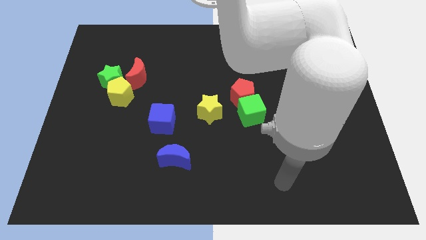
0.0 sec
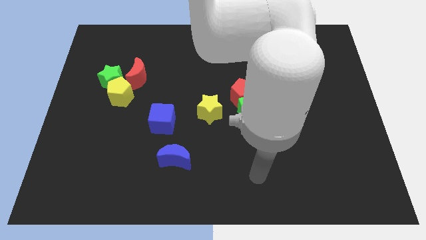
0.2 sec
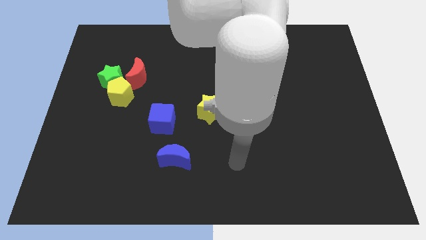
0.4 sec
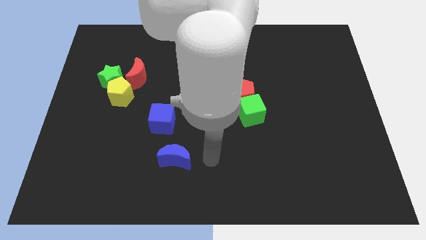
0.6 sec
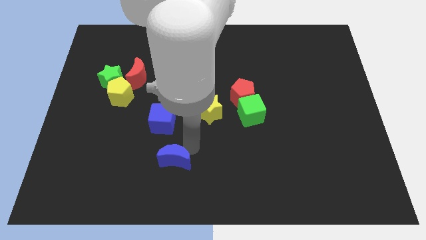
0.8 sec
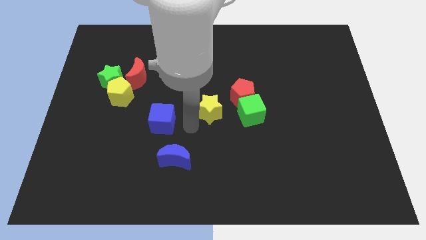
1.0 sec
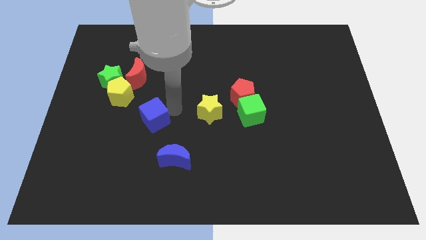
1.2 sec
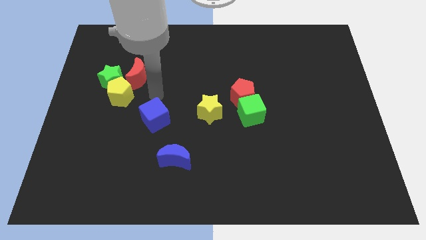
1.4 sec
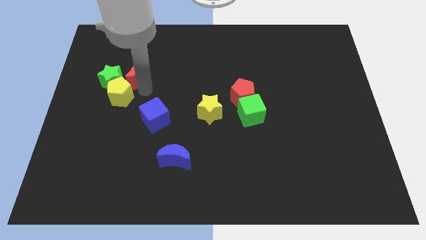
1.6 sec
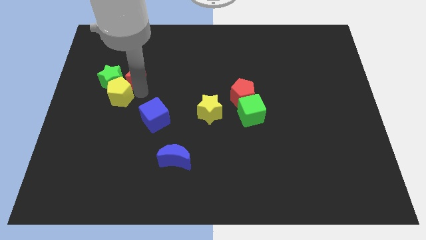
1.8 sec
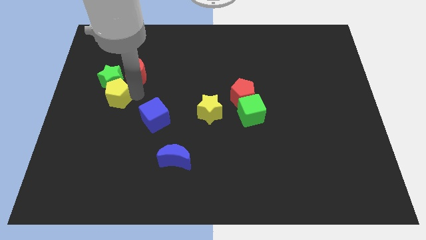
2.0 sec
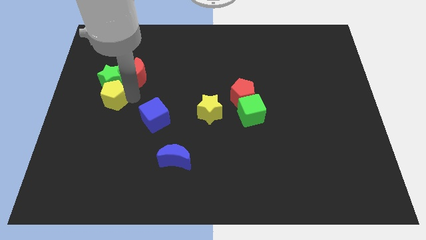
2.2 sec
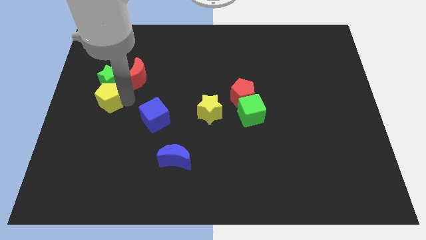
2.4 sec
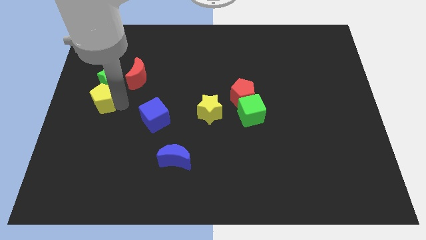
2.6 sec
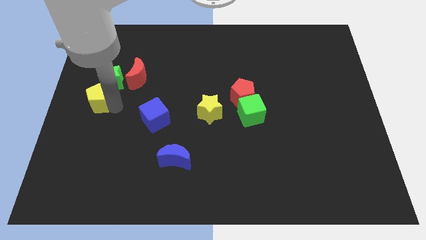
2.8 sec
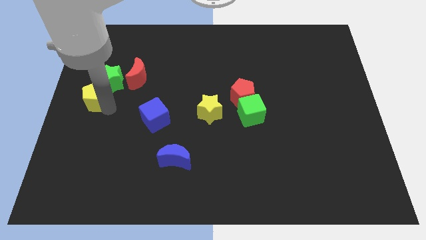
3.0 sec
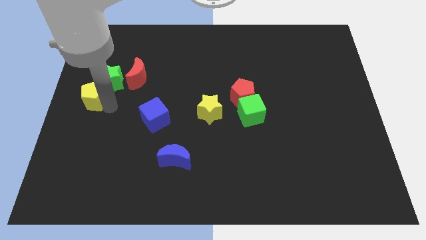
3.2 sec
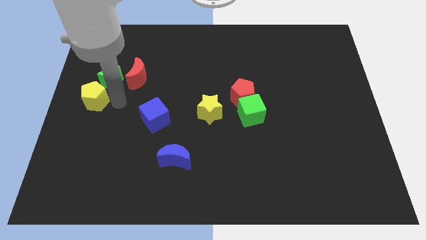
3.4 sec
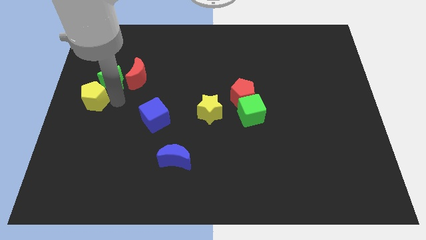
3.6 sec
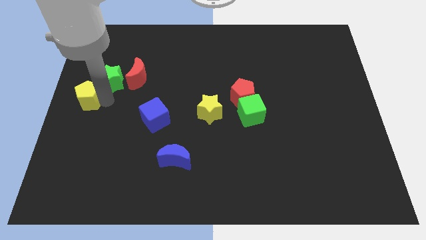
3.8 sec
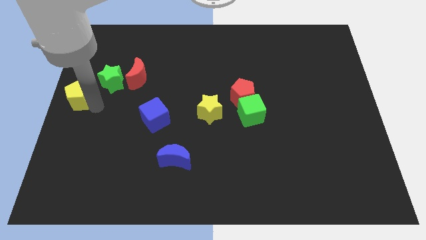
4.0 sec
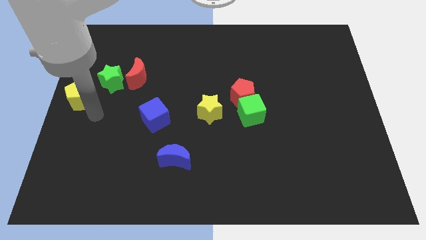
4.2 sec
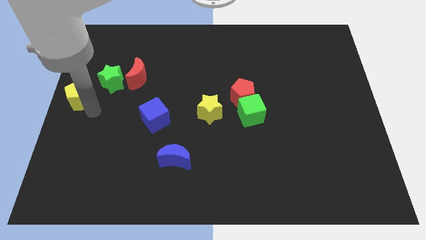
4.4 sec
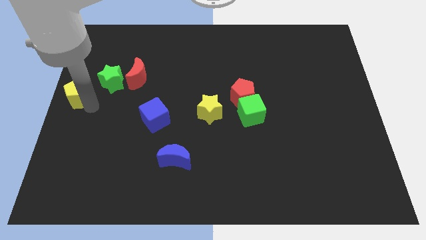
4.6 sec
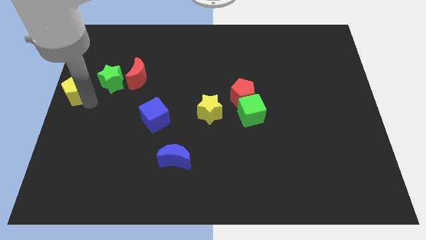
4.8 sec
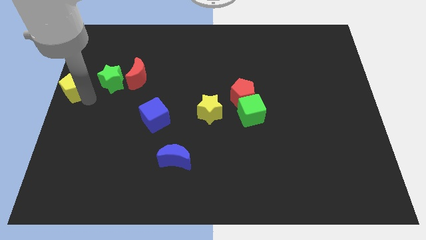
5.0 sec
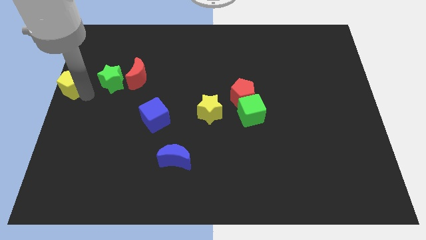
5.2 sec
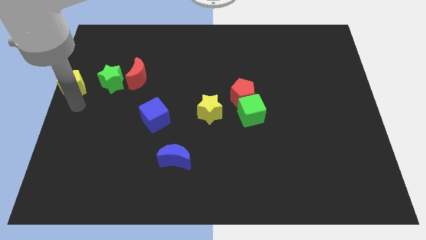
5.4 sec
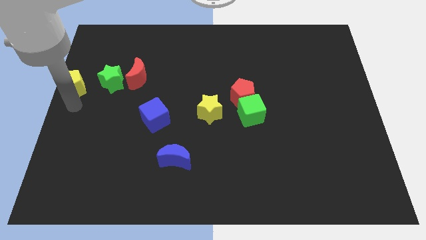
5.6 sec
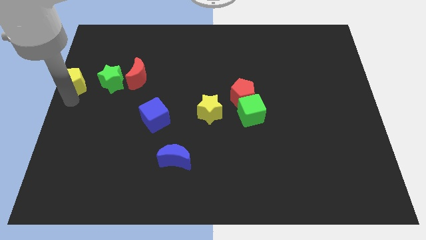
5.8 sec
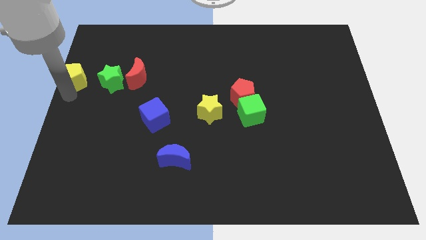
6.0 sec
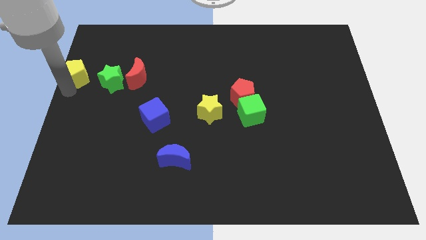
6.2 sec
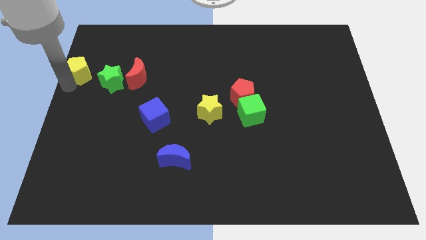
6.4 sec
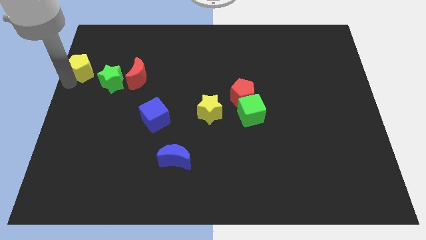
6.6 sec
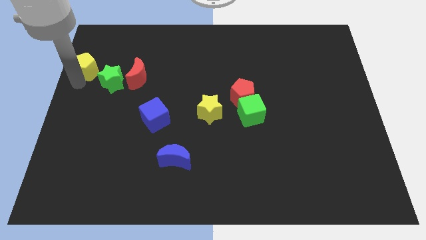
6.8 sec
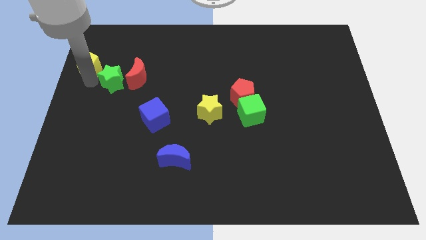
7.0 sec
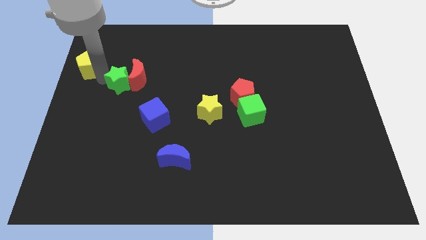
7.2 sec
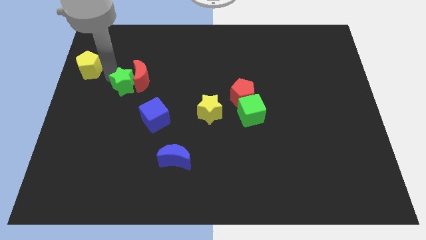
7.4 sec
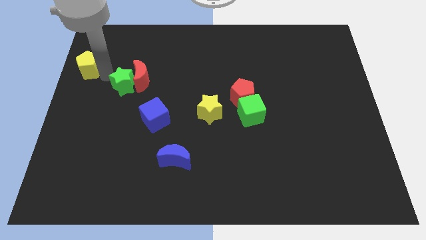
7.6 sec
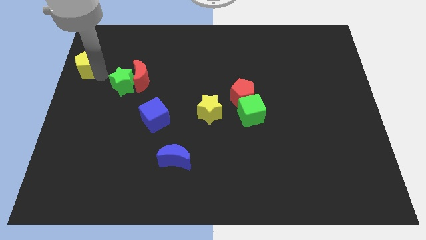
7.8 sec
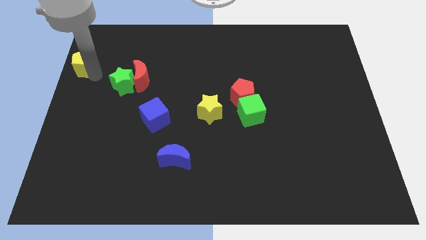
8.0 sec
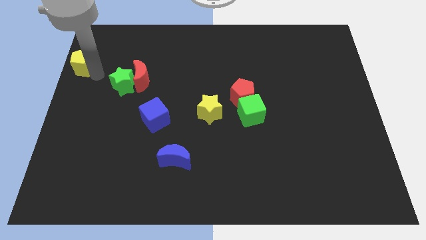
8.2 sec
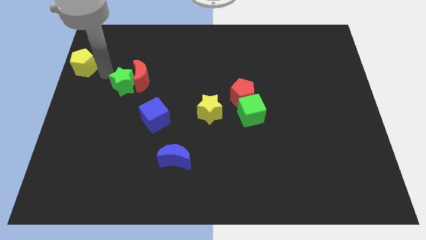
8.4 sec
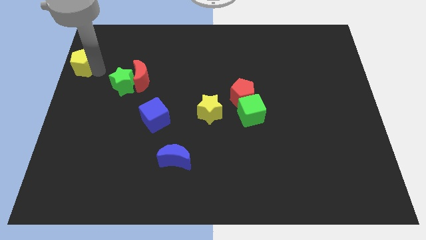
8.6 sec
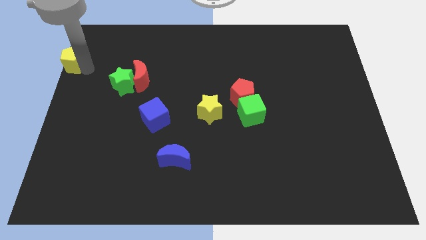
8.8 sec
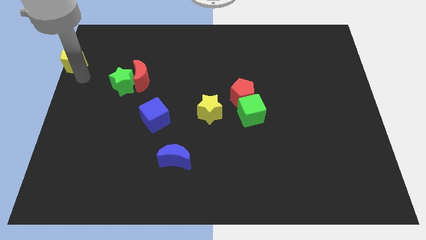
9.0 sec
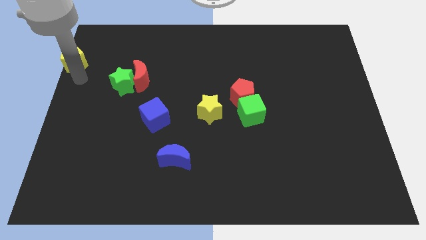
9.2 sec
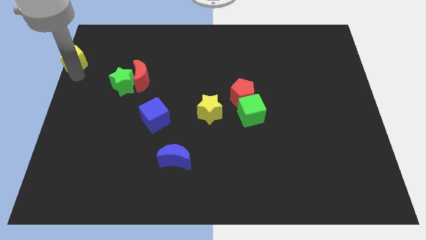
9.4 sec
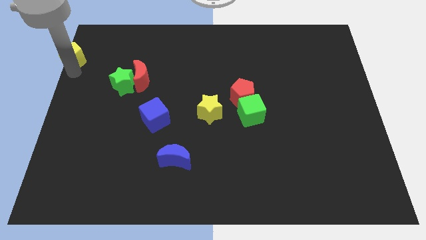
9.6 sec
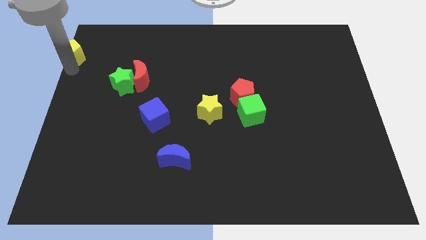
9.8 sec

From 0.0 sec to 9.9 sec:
put the yellow pentagon to the upper left corner

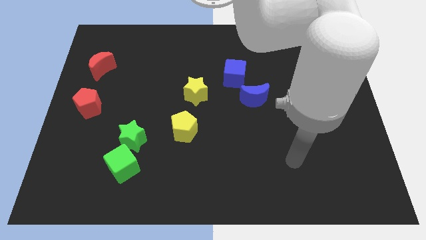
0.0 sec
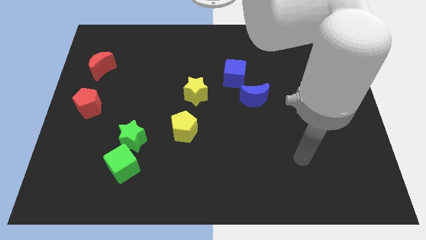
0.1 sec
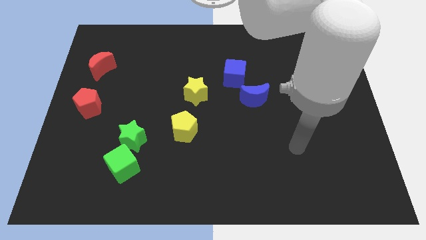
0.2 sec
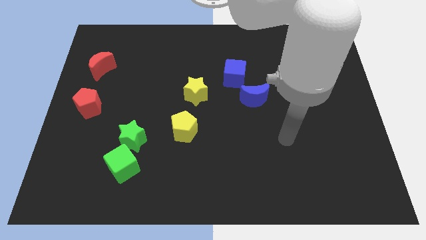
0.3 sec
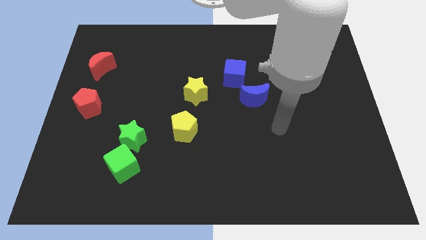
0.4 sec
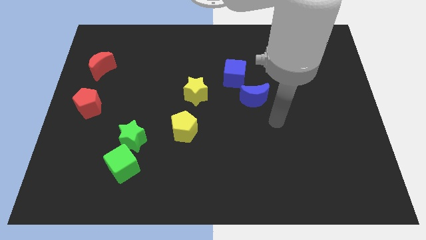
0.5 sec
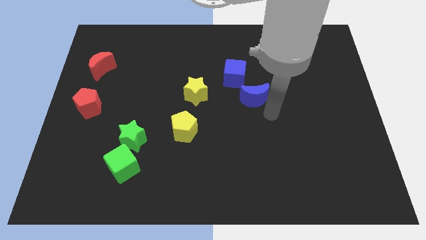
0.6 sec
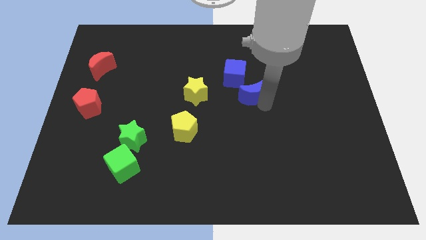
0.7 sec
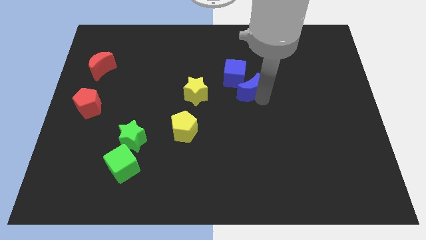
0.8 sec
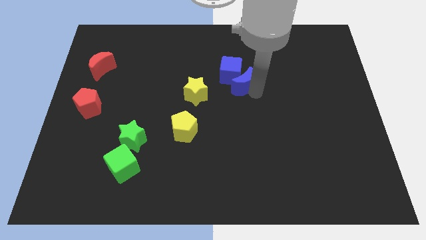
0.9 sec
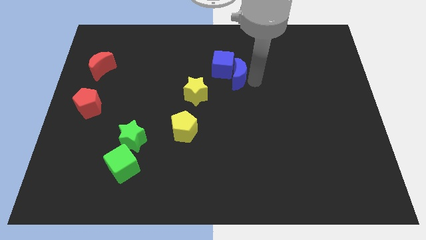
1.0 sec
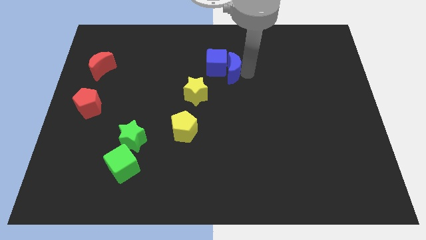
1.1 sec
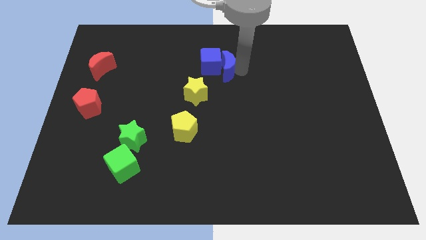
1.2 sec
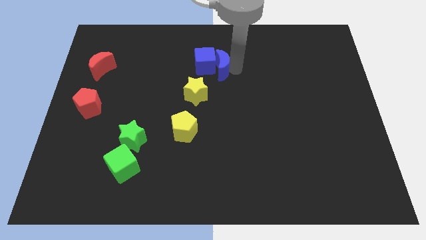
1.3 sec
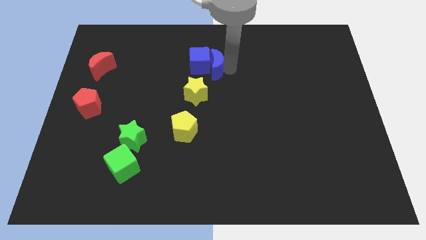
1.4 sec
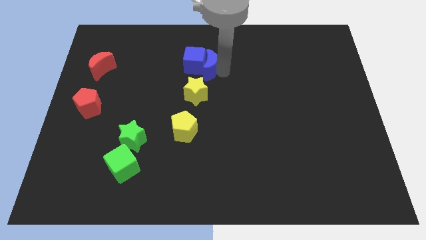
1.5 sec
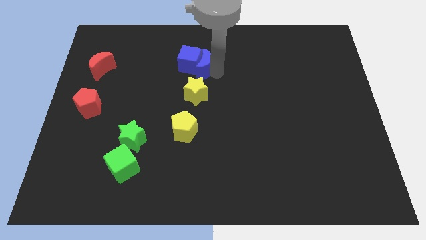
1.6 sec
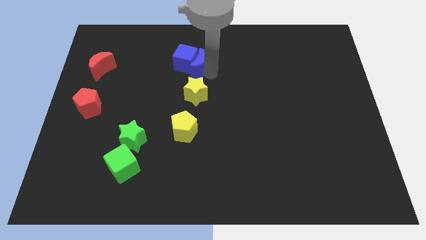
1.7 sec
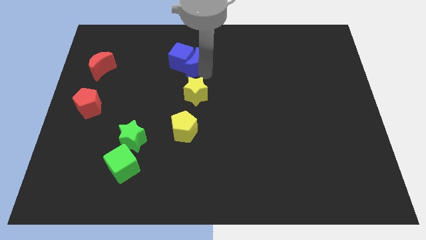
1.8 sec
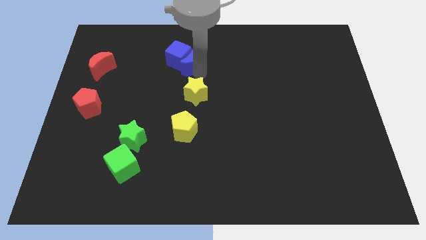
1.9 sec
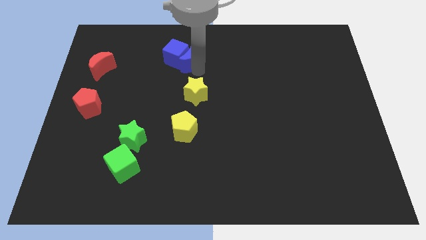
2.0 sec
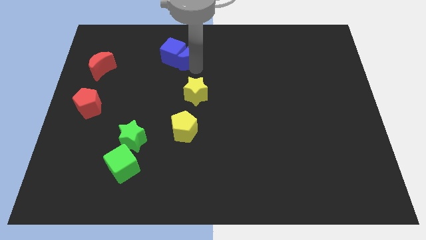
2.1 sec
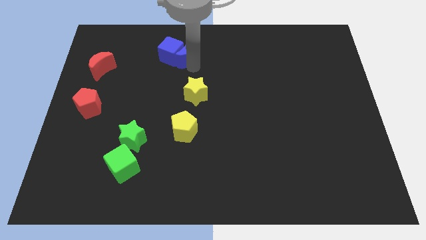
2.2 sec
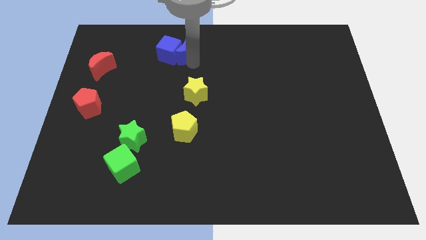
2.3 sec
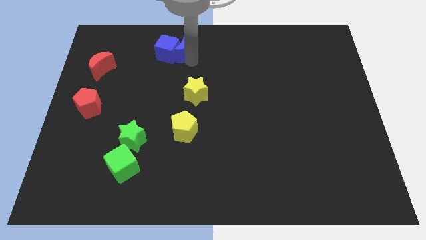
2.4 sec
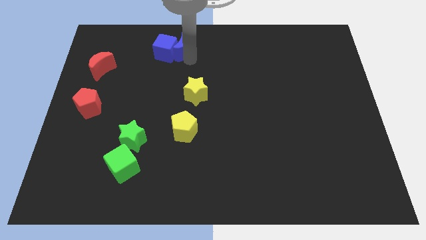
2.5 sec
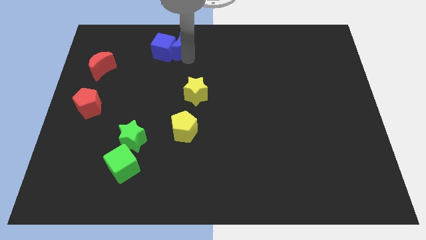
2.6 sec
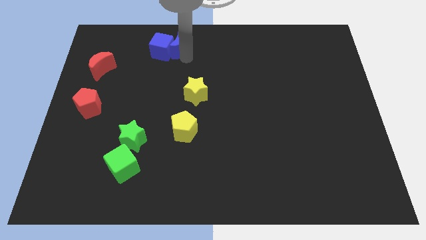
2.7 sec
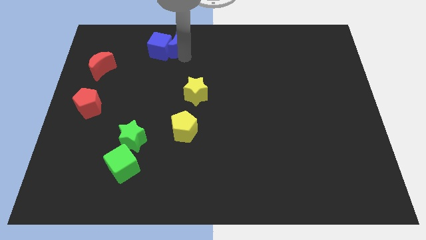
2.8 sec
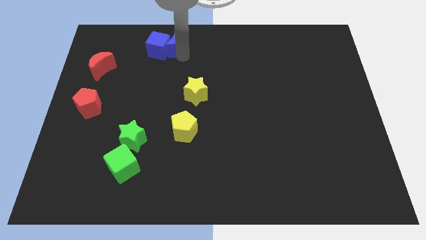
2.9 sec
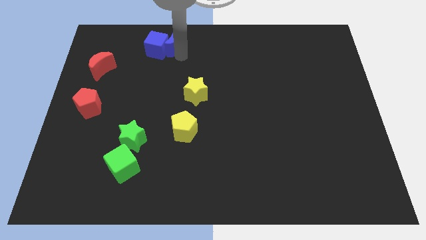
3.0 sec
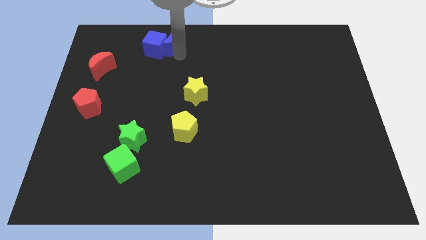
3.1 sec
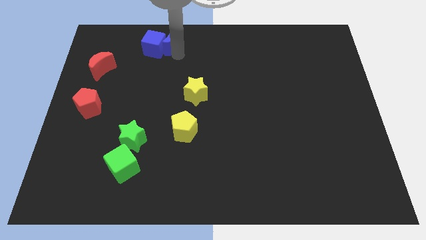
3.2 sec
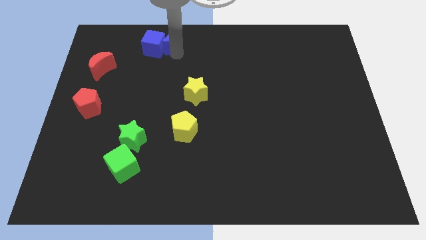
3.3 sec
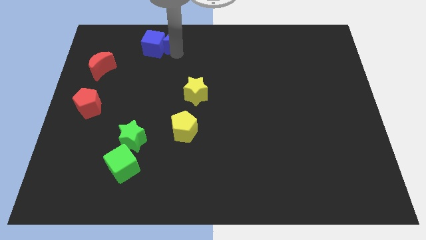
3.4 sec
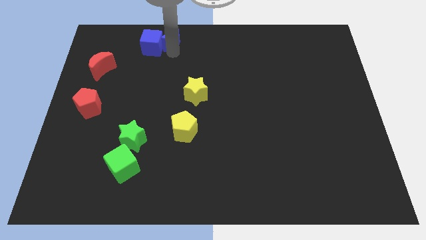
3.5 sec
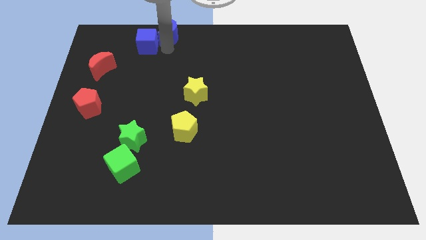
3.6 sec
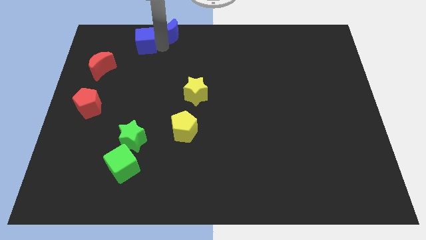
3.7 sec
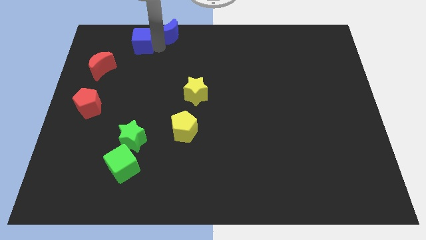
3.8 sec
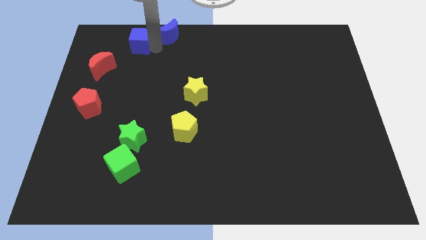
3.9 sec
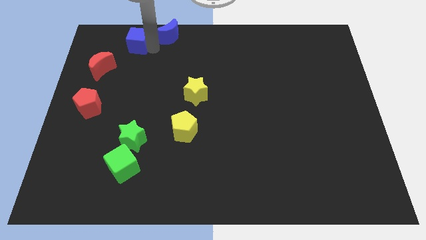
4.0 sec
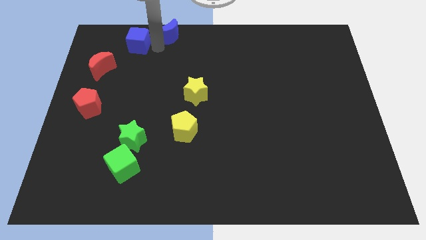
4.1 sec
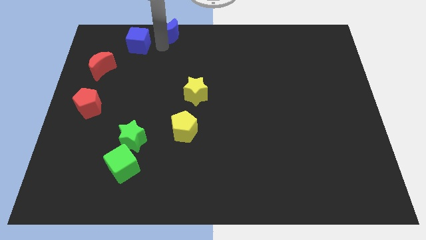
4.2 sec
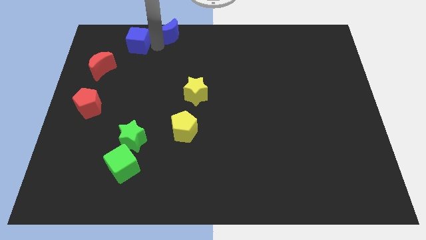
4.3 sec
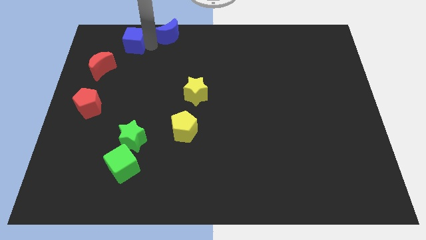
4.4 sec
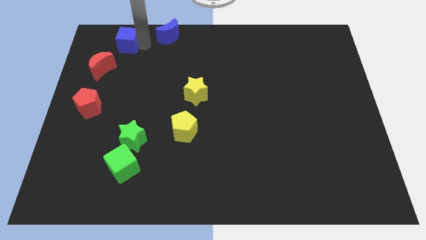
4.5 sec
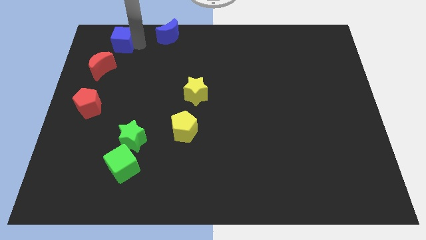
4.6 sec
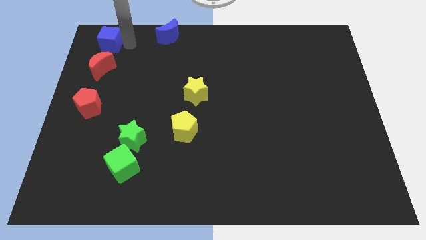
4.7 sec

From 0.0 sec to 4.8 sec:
move the blue cube to the top left
